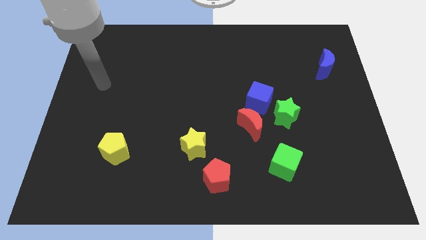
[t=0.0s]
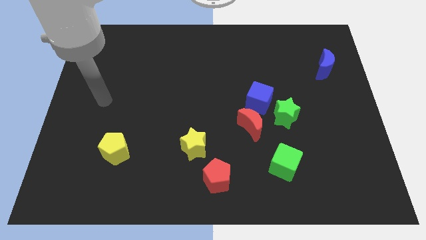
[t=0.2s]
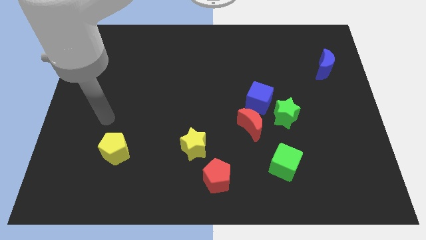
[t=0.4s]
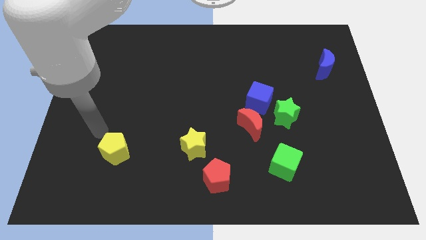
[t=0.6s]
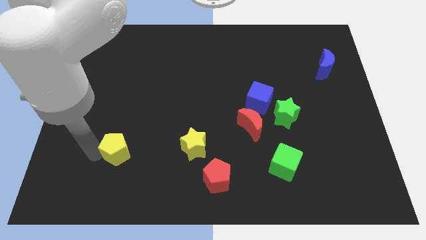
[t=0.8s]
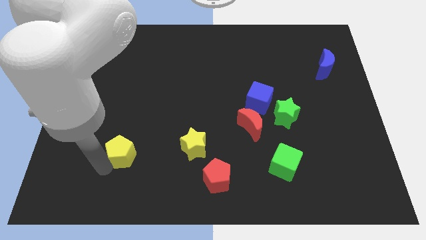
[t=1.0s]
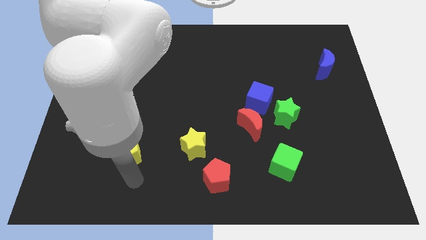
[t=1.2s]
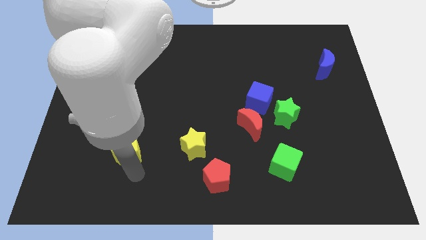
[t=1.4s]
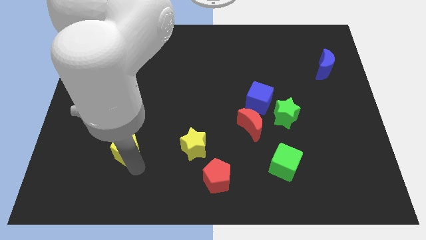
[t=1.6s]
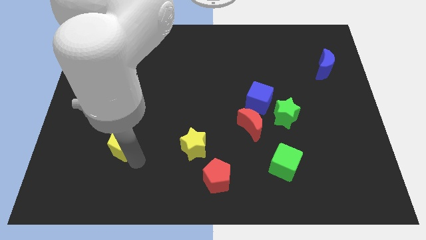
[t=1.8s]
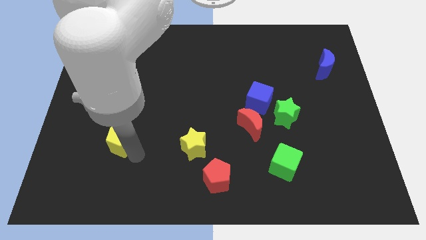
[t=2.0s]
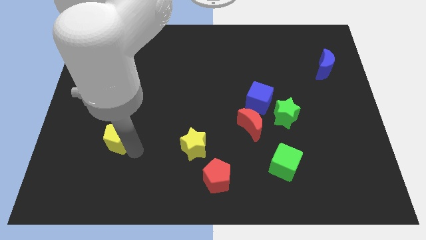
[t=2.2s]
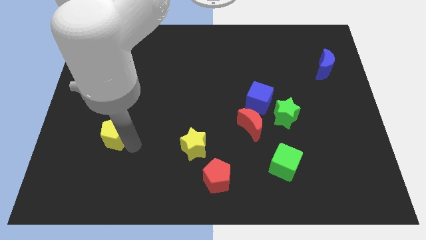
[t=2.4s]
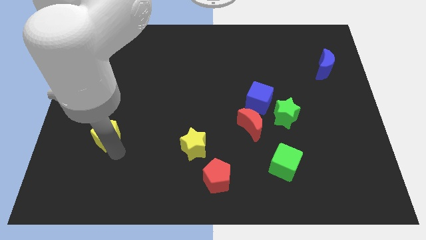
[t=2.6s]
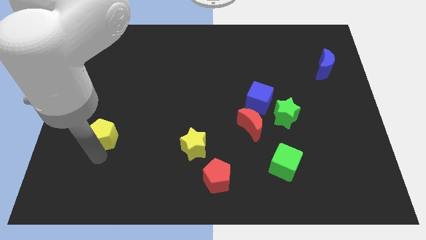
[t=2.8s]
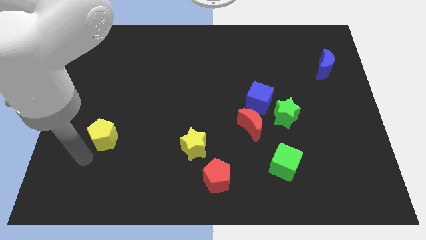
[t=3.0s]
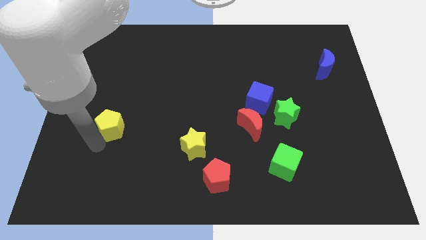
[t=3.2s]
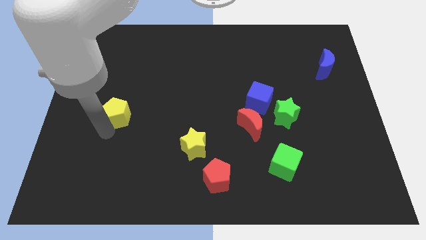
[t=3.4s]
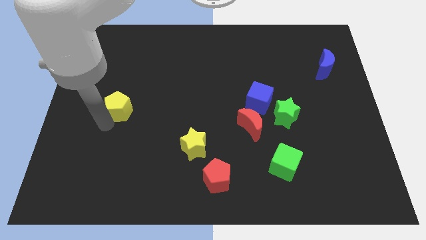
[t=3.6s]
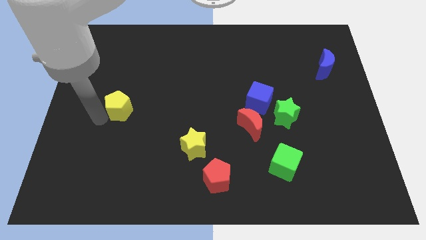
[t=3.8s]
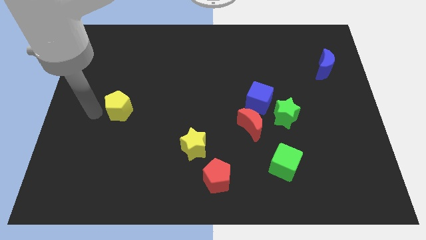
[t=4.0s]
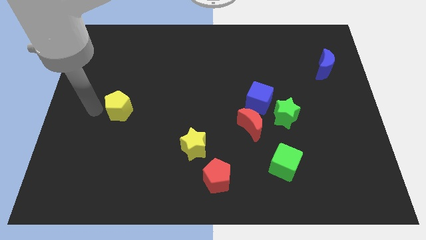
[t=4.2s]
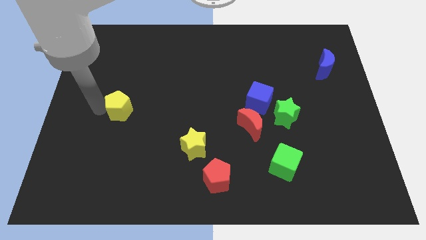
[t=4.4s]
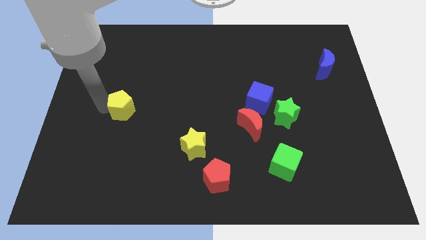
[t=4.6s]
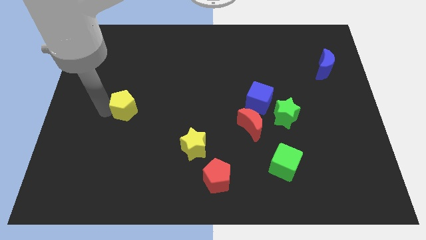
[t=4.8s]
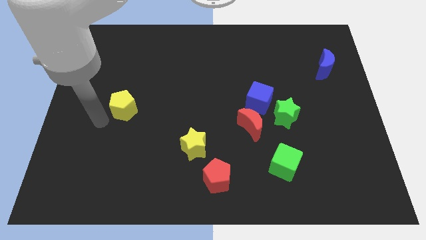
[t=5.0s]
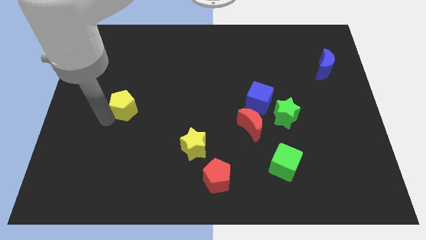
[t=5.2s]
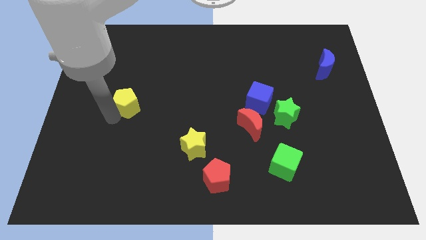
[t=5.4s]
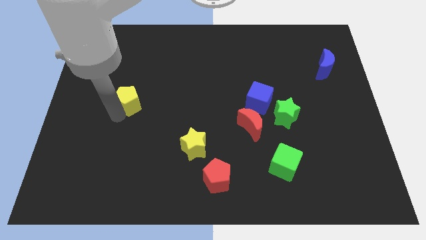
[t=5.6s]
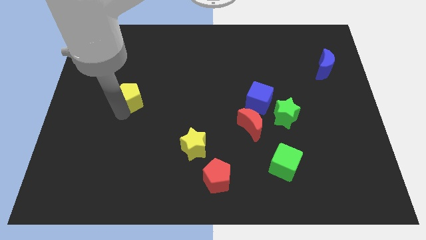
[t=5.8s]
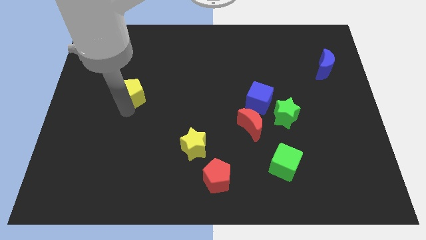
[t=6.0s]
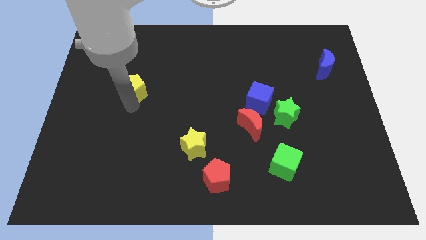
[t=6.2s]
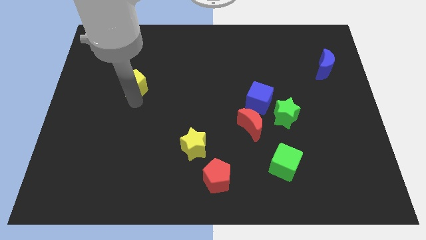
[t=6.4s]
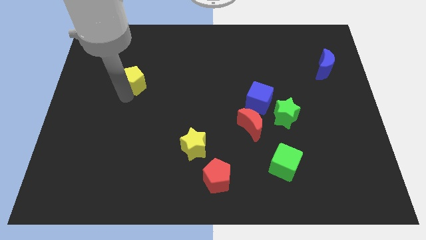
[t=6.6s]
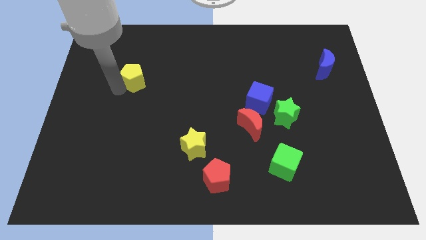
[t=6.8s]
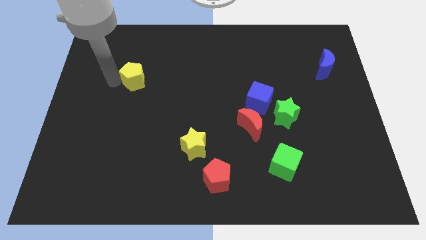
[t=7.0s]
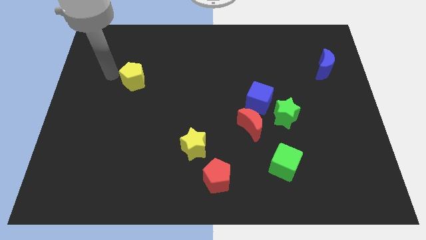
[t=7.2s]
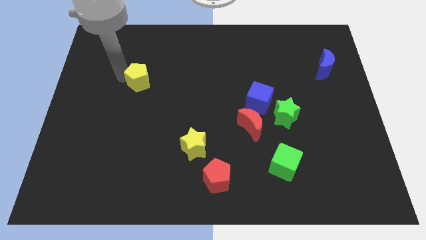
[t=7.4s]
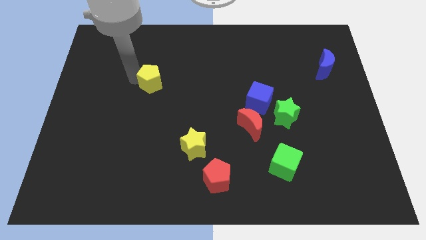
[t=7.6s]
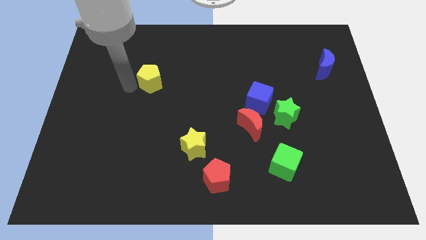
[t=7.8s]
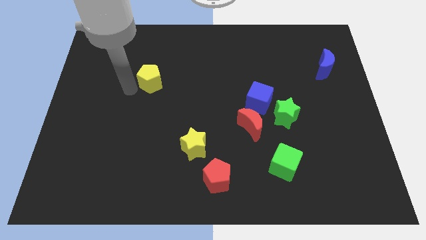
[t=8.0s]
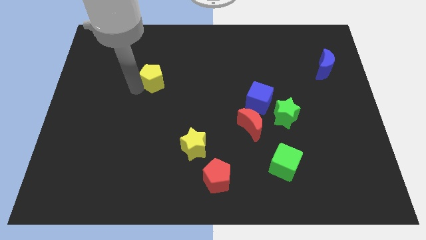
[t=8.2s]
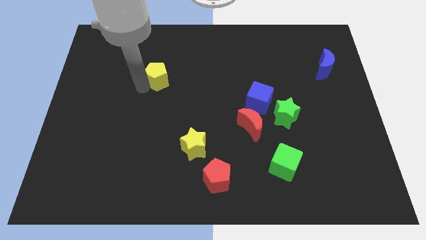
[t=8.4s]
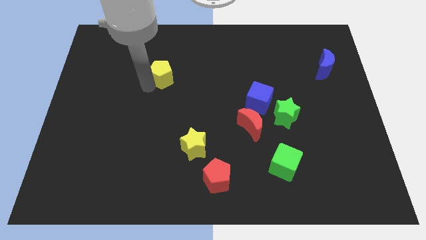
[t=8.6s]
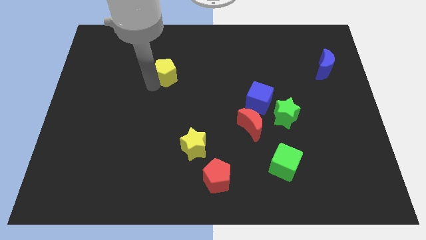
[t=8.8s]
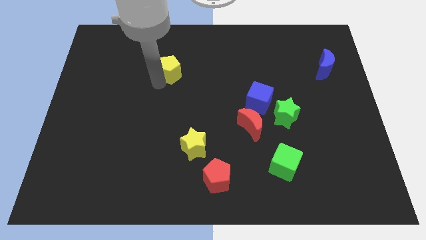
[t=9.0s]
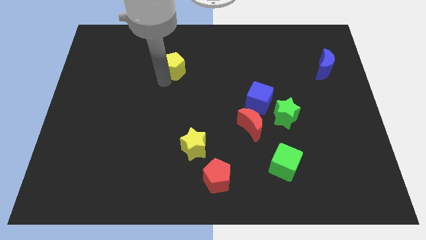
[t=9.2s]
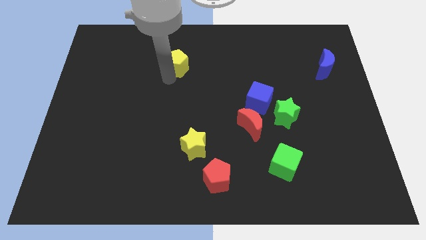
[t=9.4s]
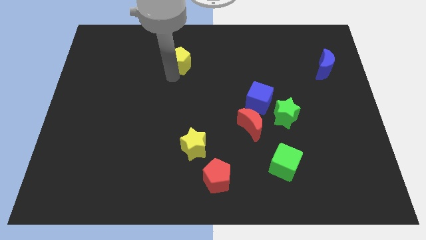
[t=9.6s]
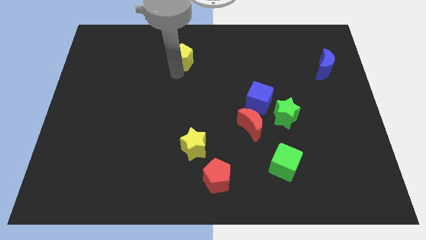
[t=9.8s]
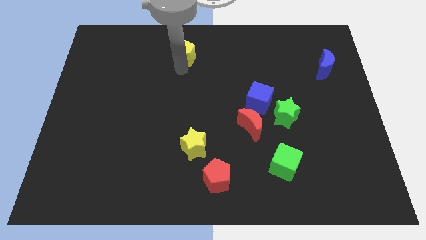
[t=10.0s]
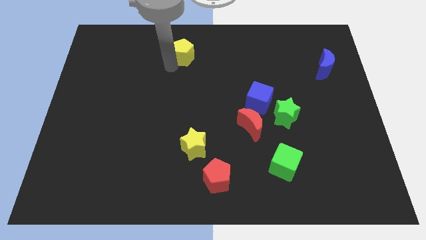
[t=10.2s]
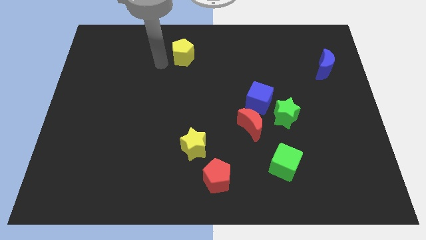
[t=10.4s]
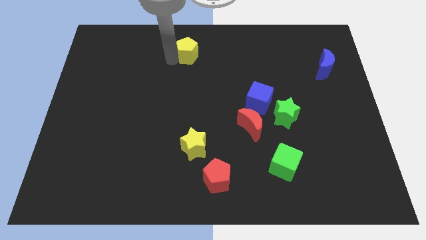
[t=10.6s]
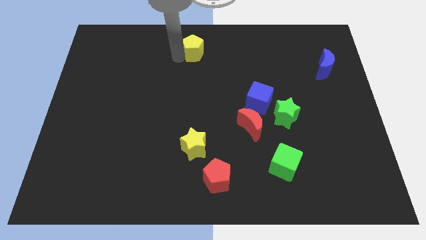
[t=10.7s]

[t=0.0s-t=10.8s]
push the yellow pentagon to the top side
